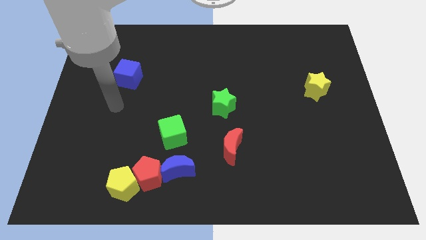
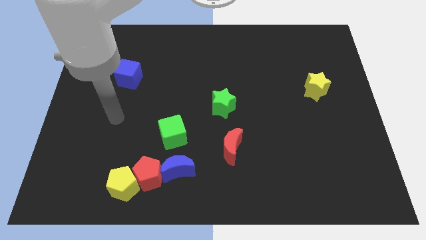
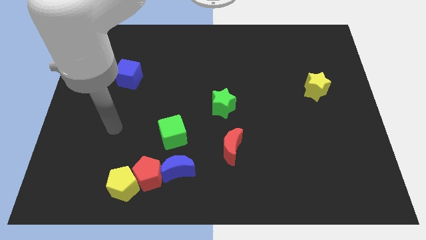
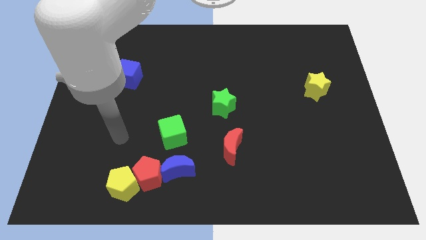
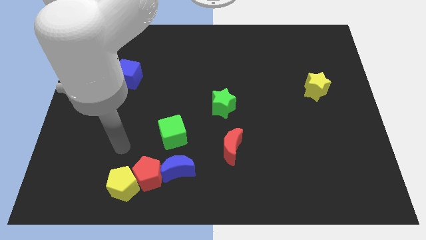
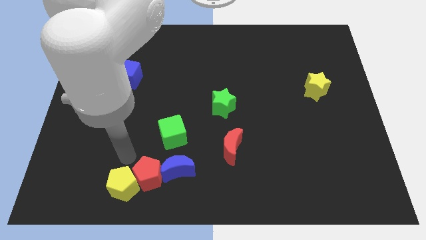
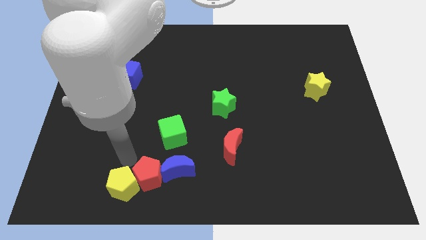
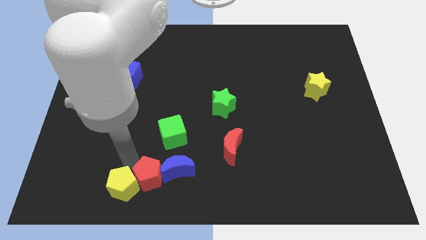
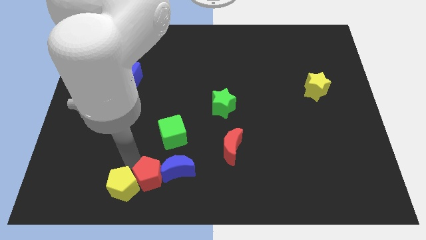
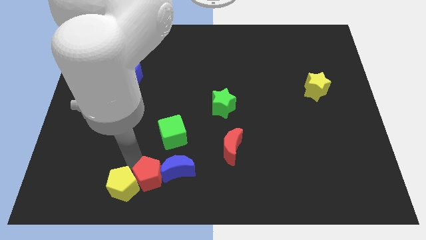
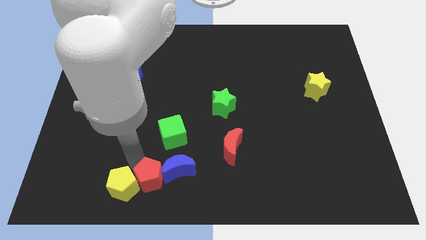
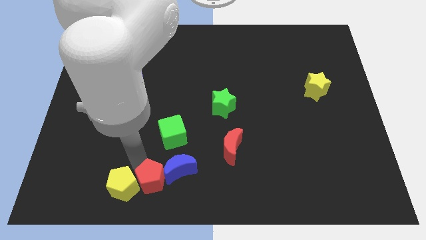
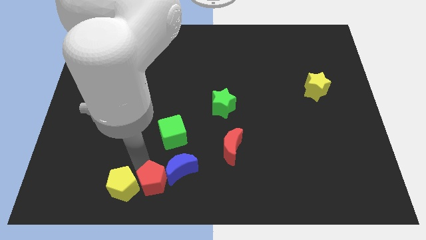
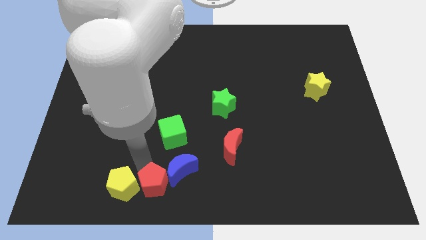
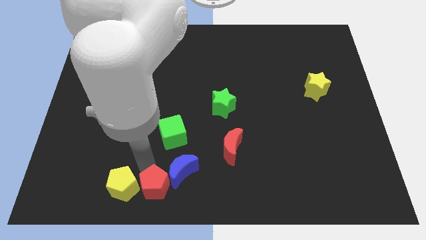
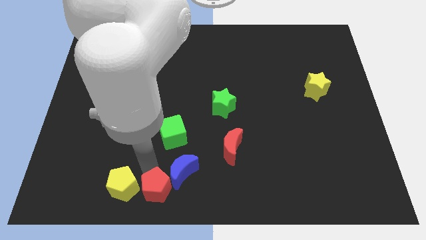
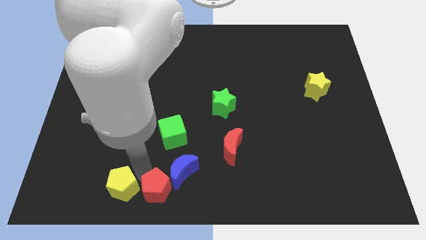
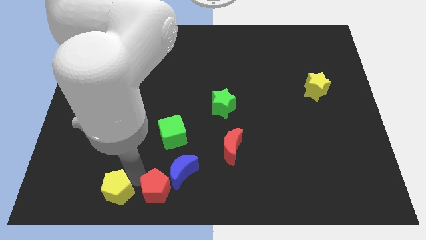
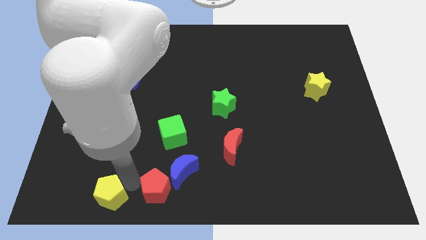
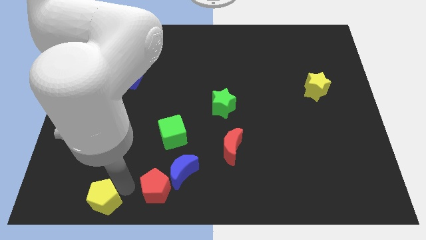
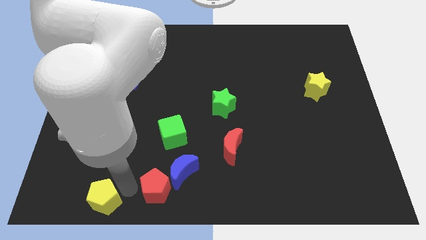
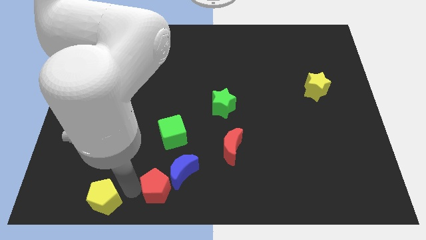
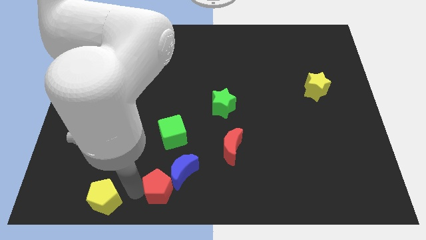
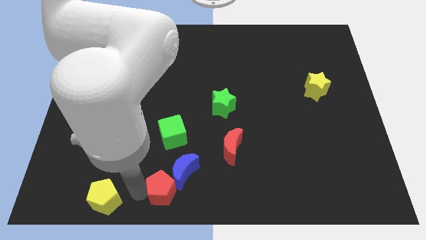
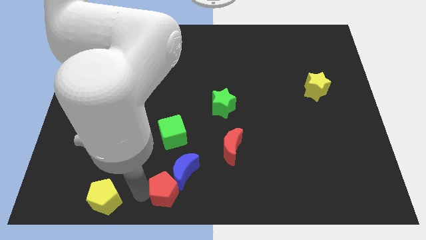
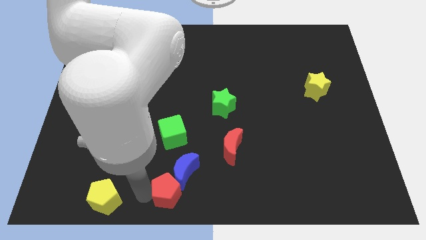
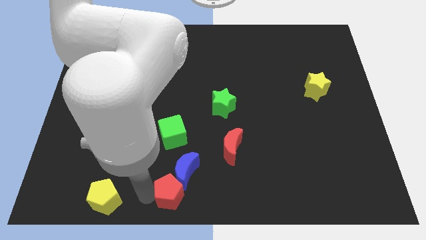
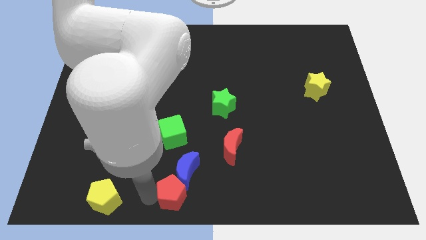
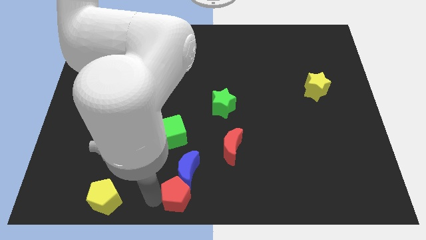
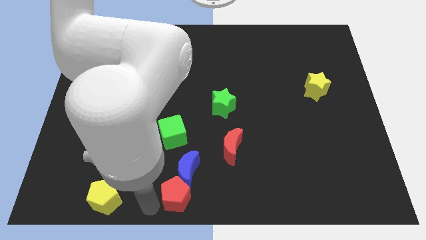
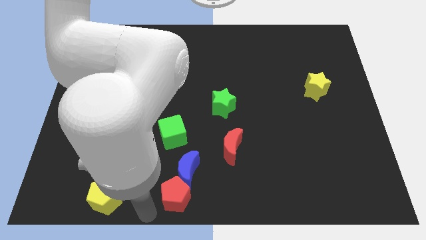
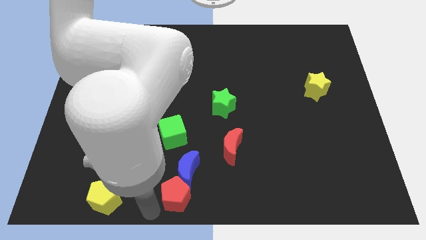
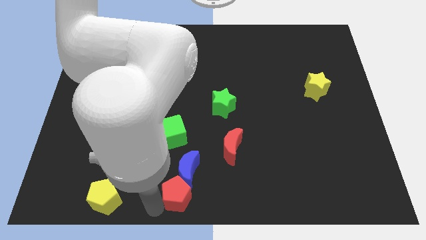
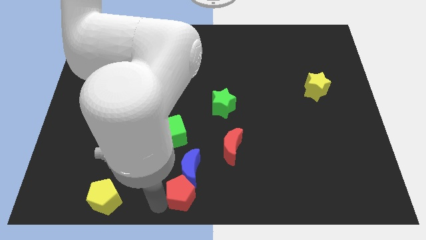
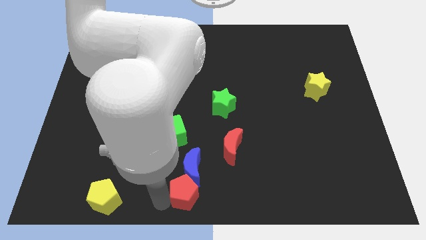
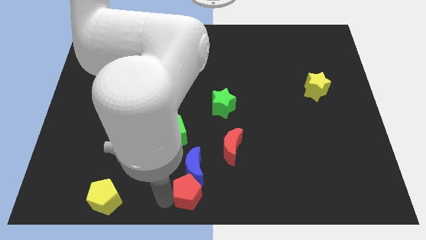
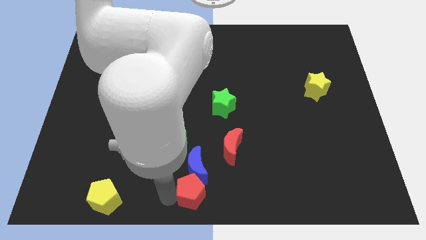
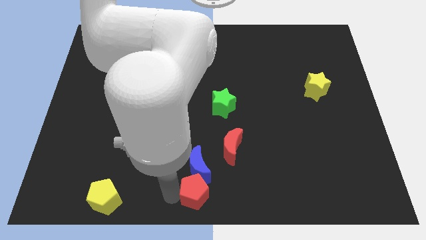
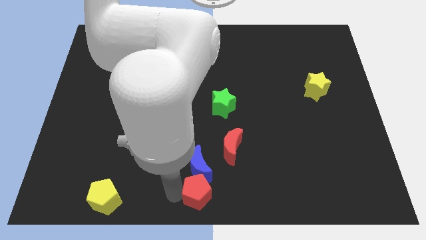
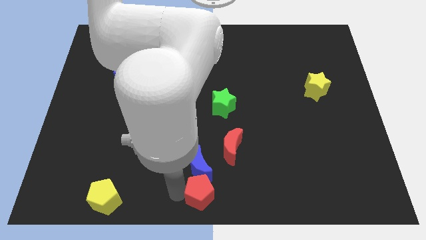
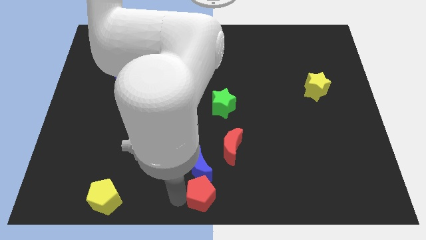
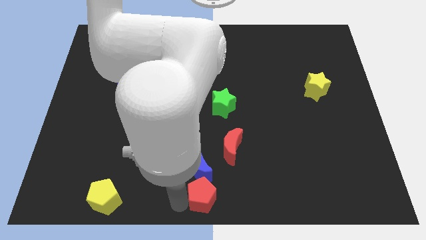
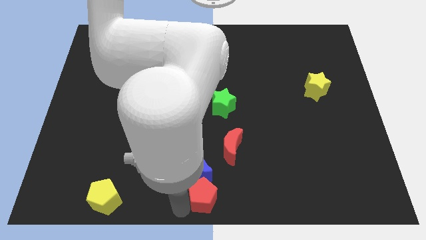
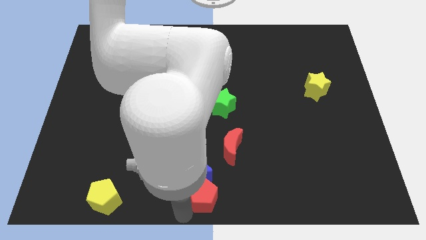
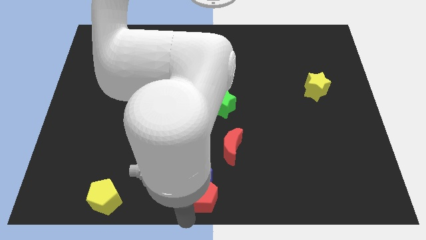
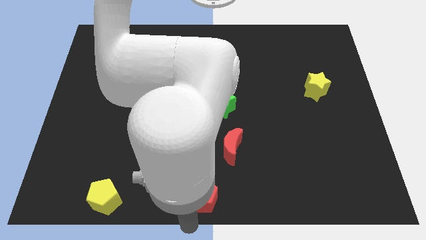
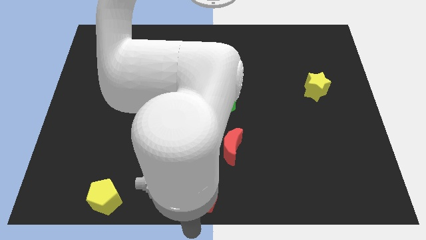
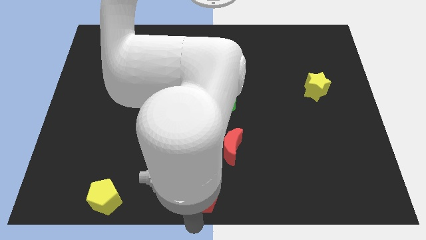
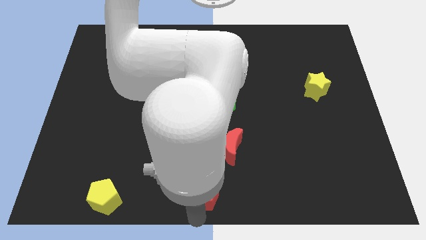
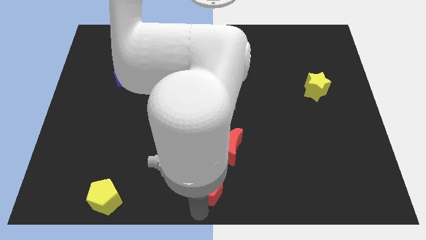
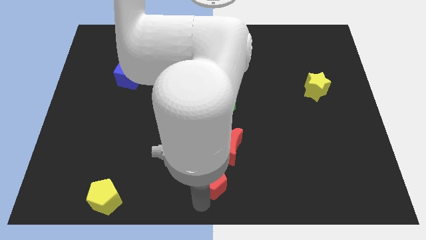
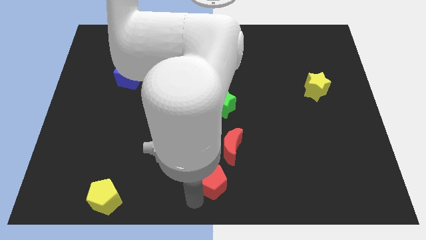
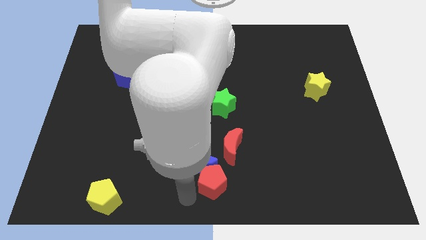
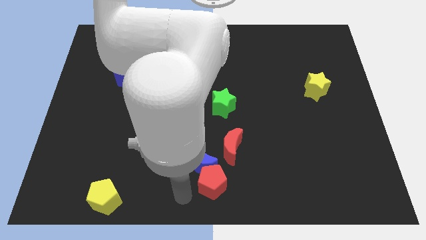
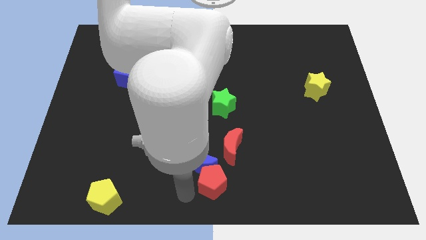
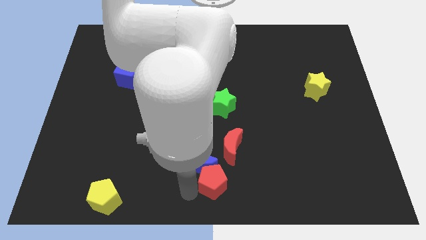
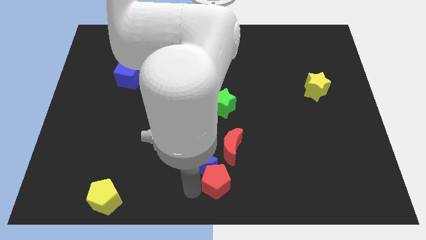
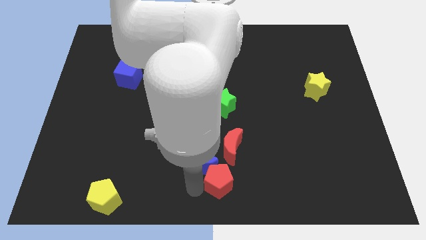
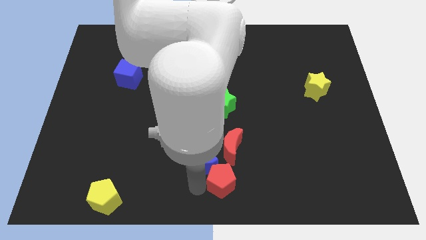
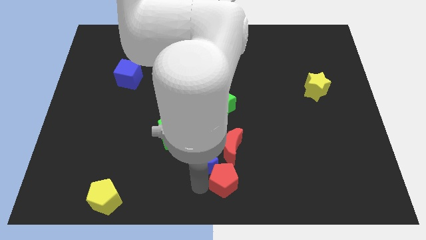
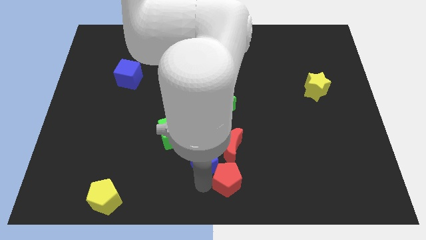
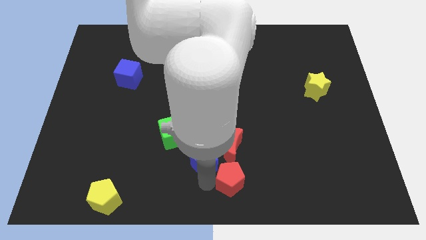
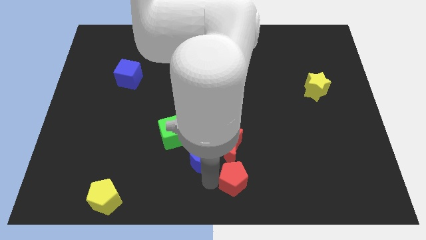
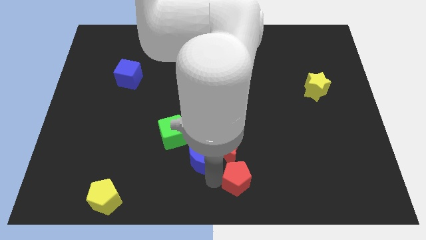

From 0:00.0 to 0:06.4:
move the red pentagon to the bottom right side of the red moon
